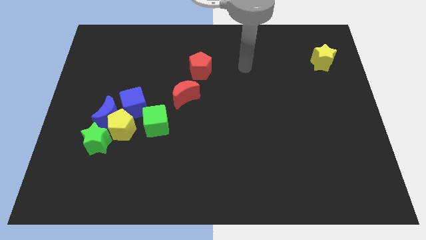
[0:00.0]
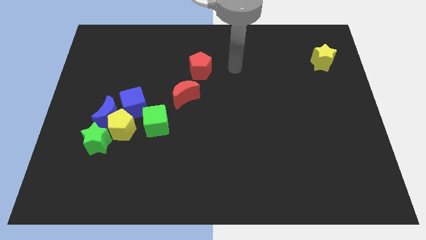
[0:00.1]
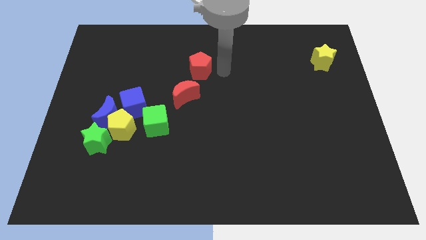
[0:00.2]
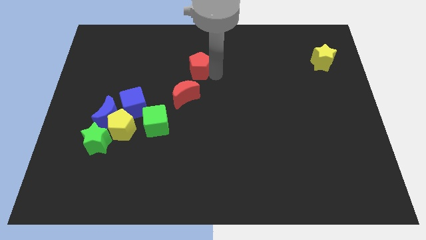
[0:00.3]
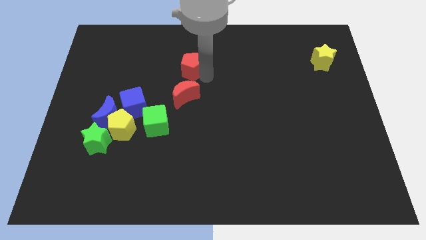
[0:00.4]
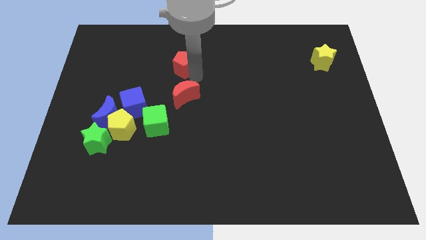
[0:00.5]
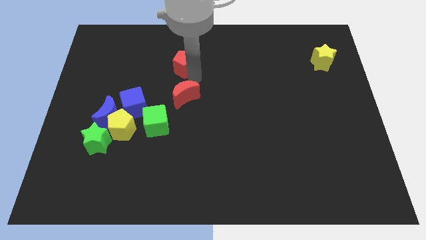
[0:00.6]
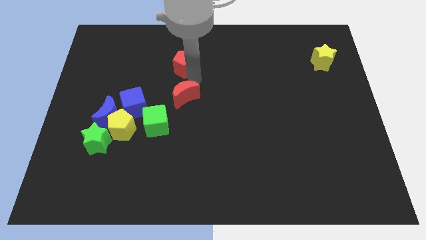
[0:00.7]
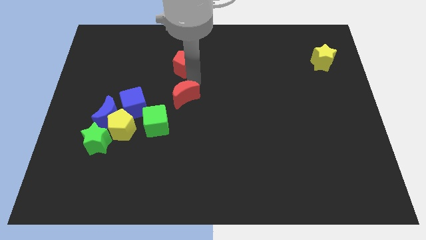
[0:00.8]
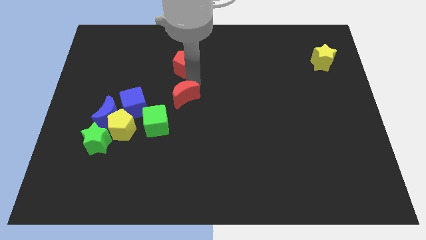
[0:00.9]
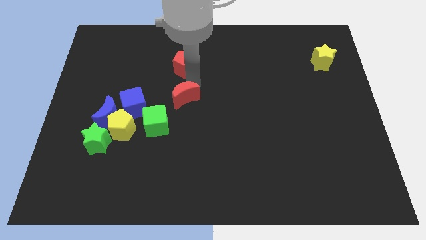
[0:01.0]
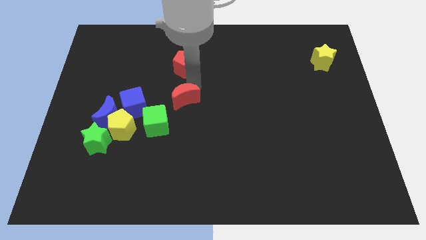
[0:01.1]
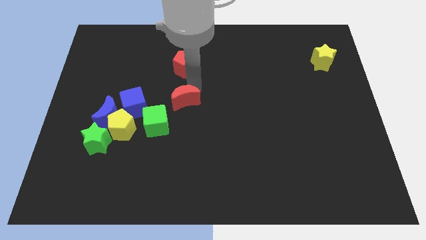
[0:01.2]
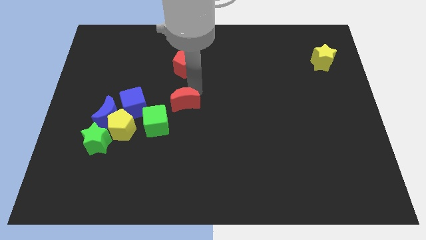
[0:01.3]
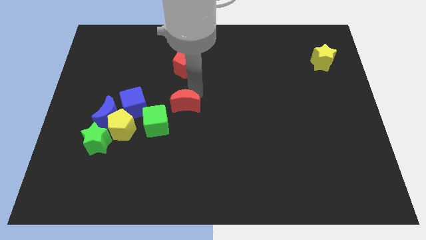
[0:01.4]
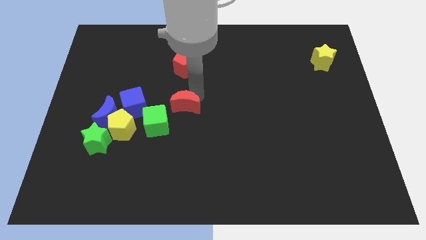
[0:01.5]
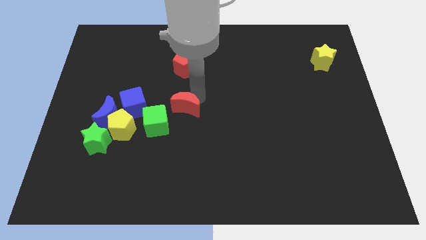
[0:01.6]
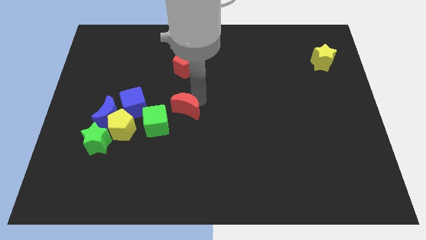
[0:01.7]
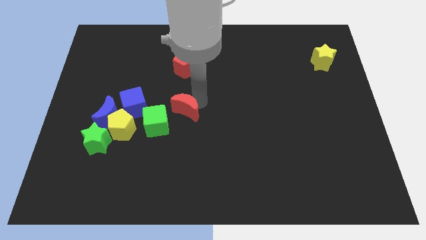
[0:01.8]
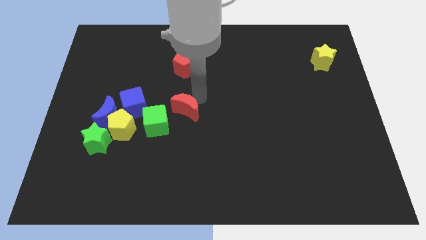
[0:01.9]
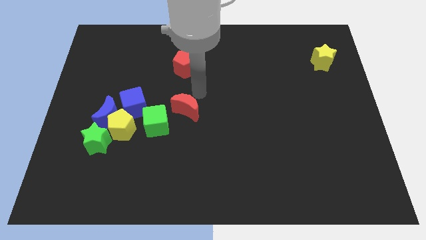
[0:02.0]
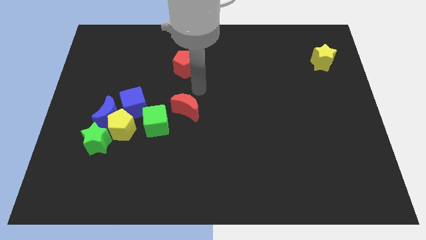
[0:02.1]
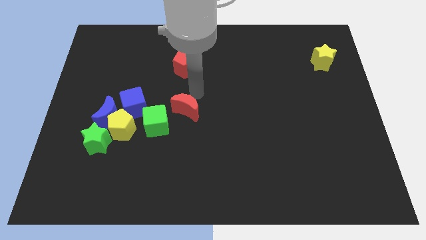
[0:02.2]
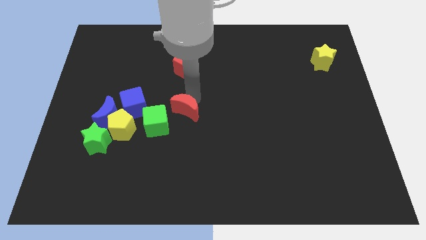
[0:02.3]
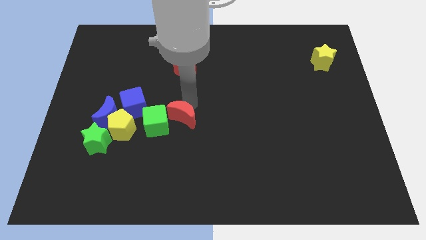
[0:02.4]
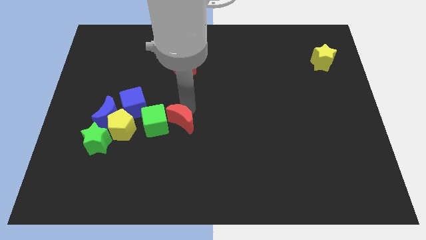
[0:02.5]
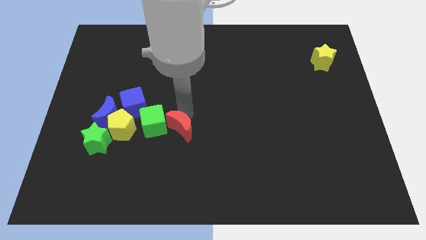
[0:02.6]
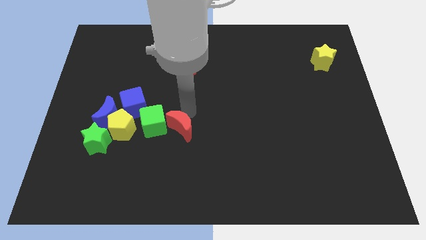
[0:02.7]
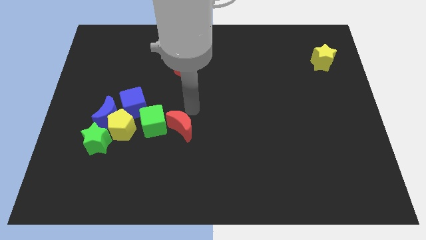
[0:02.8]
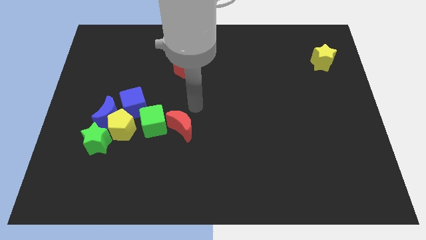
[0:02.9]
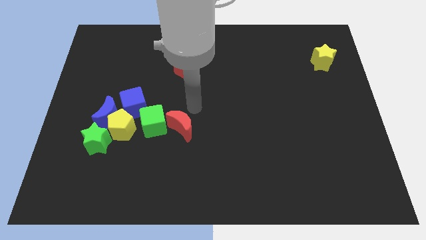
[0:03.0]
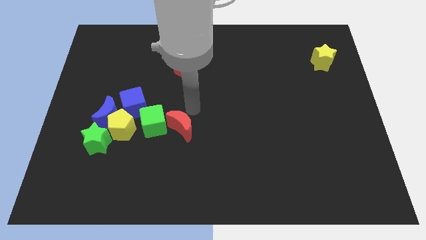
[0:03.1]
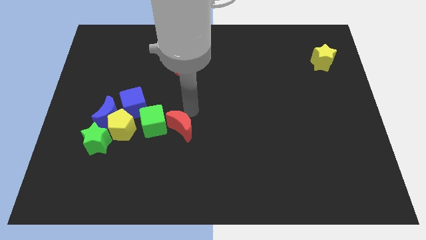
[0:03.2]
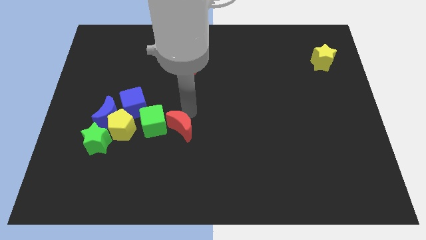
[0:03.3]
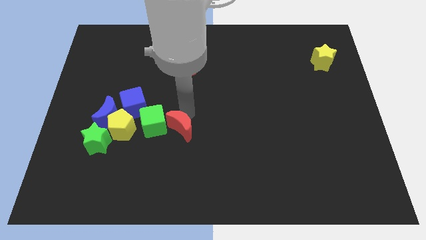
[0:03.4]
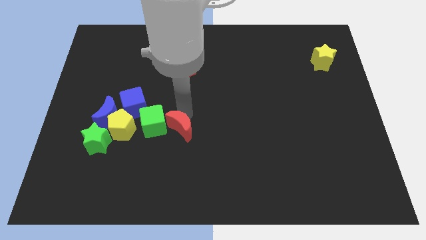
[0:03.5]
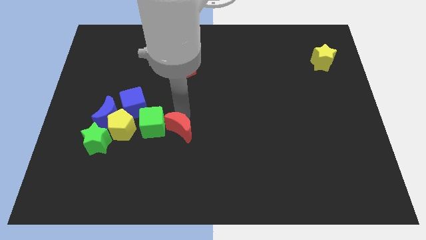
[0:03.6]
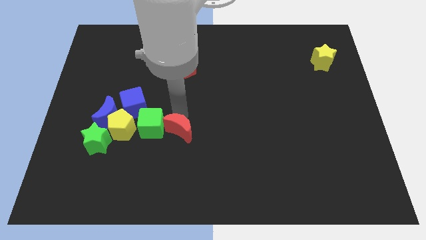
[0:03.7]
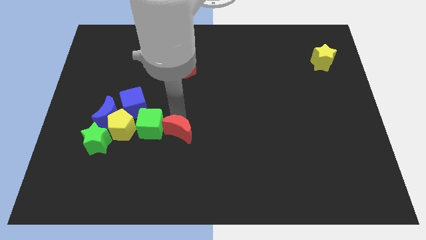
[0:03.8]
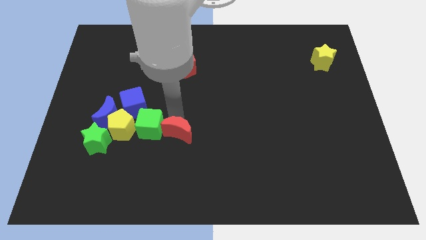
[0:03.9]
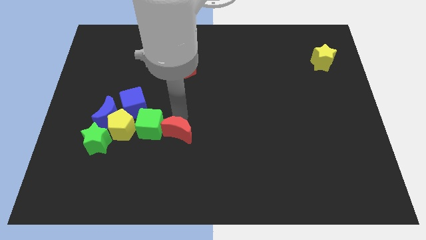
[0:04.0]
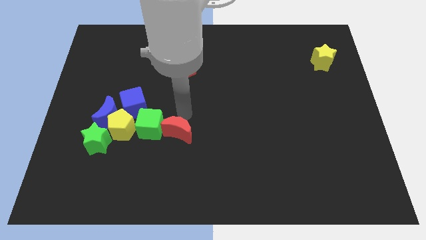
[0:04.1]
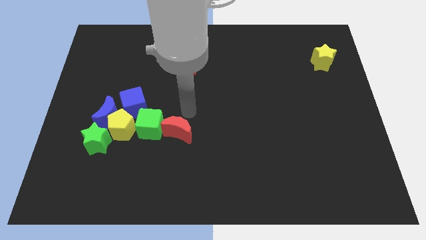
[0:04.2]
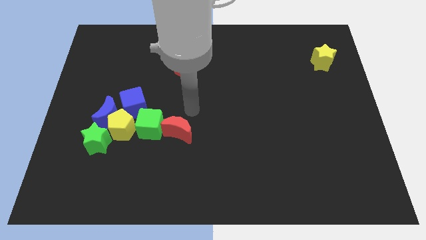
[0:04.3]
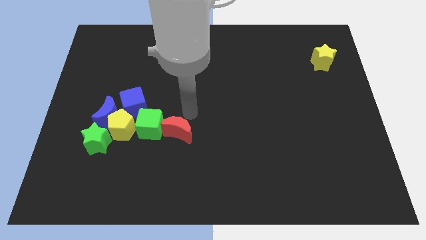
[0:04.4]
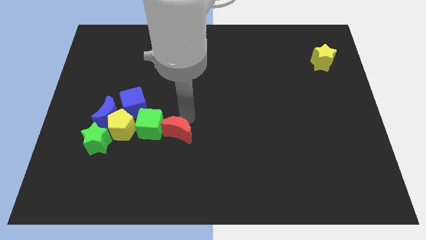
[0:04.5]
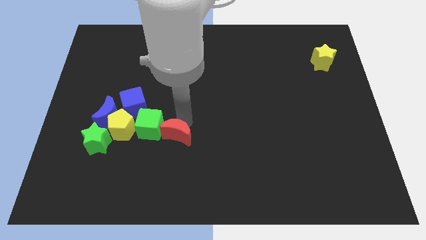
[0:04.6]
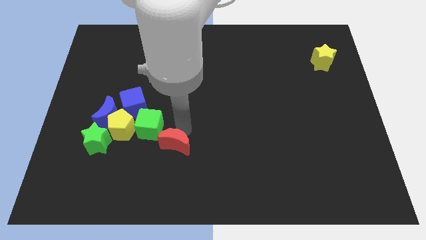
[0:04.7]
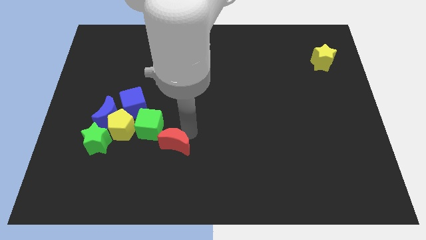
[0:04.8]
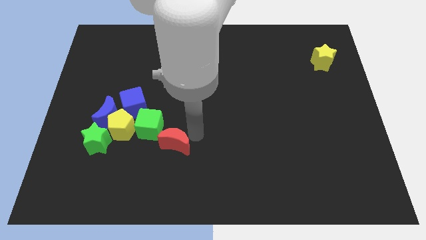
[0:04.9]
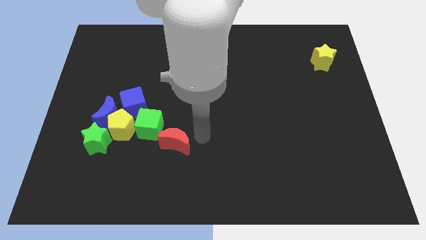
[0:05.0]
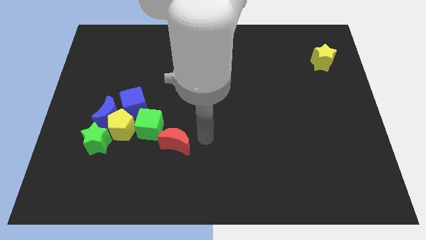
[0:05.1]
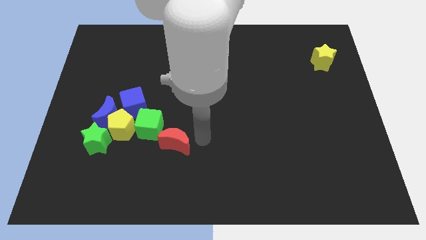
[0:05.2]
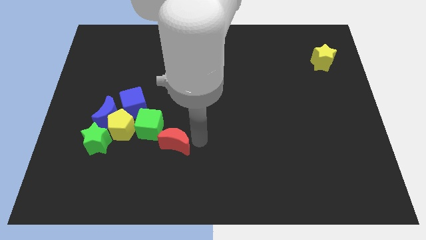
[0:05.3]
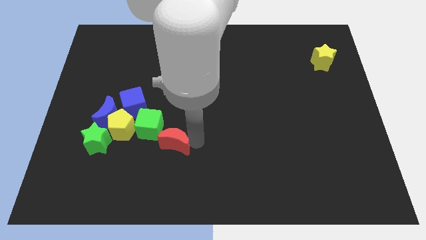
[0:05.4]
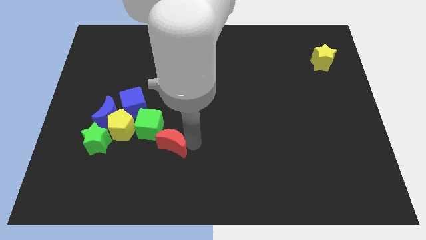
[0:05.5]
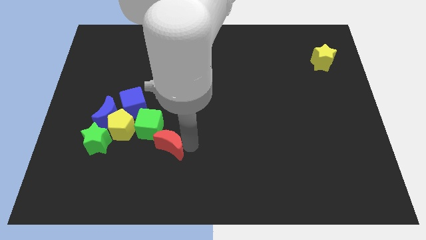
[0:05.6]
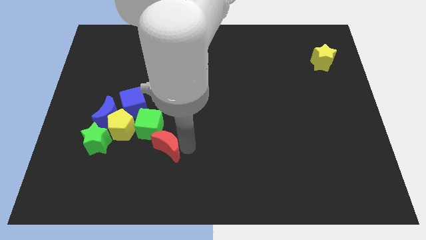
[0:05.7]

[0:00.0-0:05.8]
slide the red moon to the bottom right of the yellow pentagon

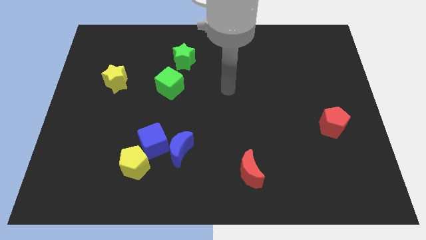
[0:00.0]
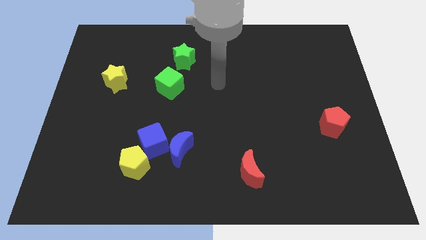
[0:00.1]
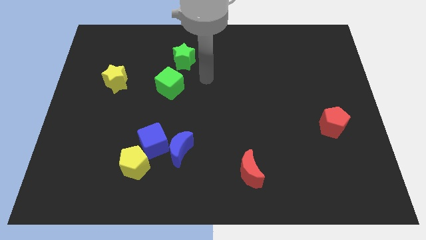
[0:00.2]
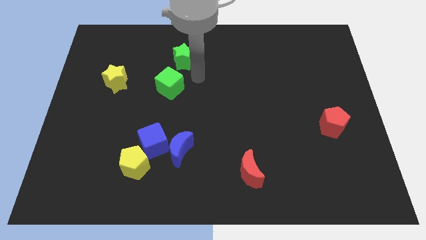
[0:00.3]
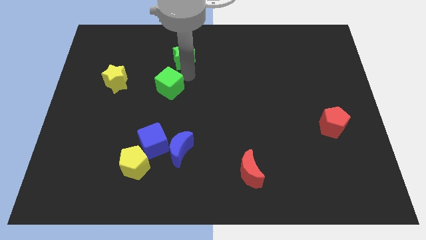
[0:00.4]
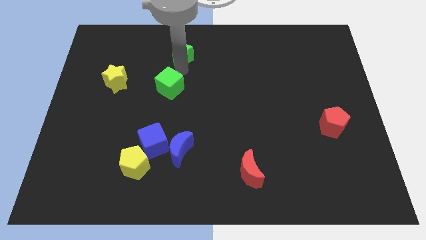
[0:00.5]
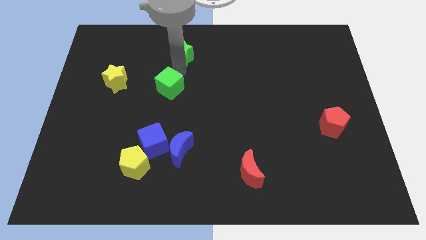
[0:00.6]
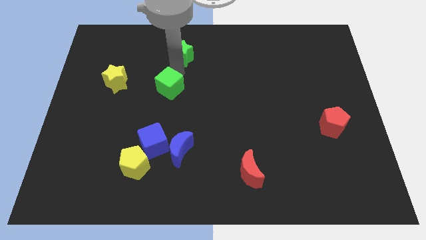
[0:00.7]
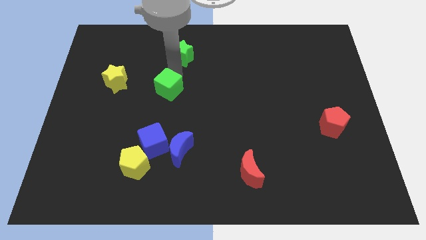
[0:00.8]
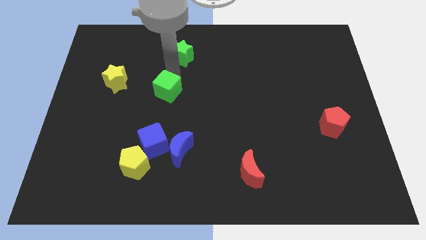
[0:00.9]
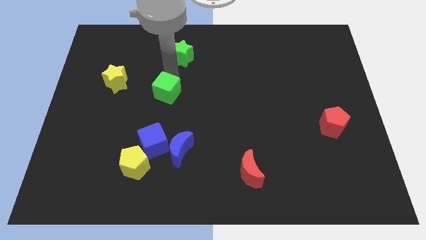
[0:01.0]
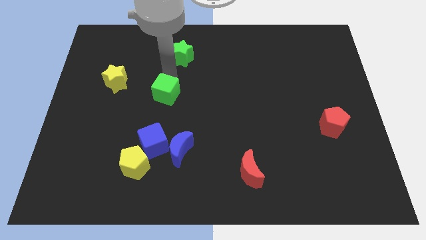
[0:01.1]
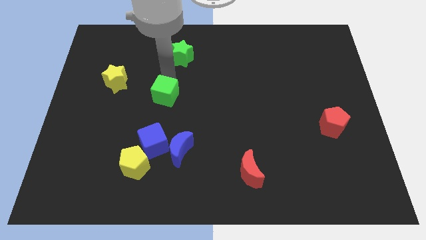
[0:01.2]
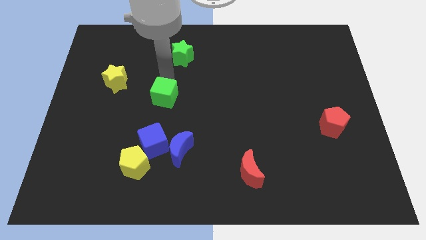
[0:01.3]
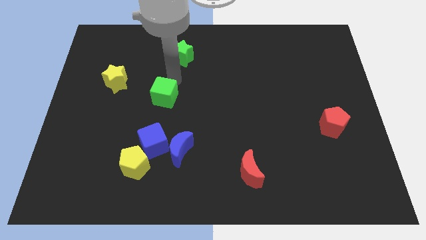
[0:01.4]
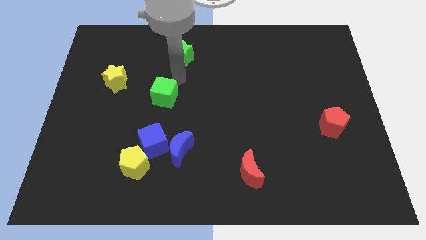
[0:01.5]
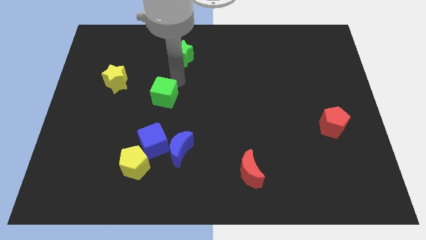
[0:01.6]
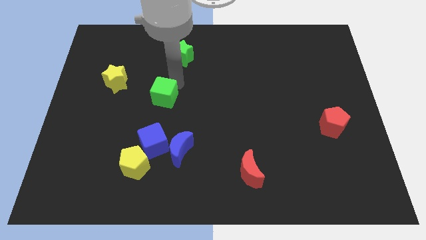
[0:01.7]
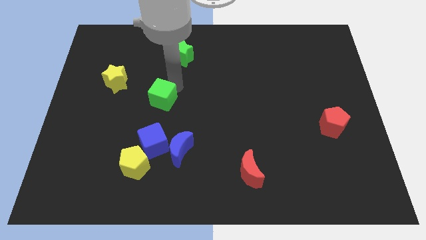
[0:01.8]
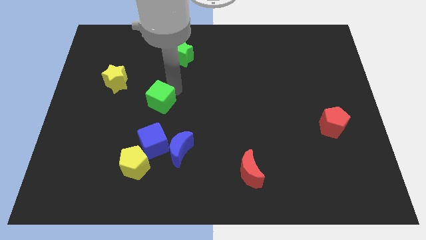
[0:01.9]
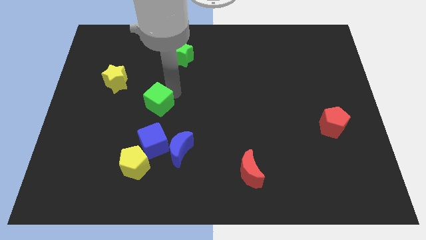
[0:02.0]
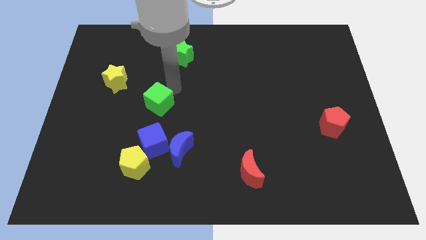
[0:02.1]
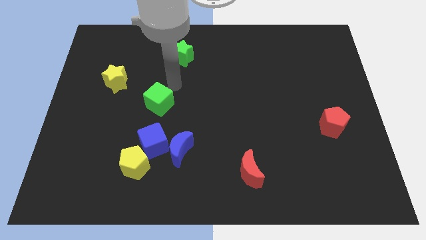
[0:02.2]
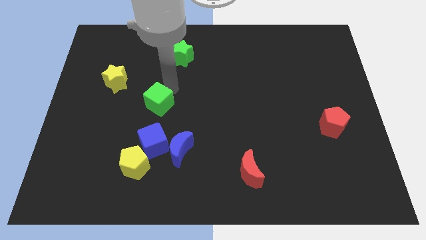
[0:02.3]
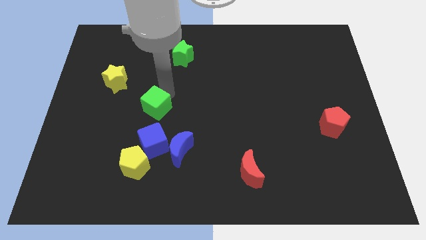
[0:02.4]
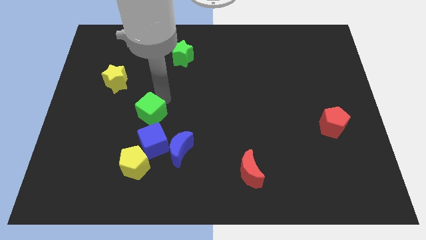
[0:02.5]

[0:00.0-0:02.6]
put the green cube above the yellow pentagon
